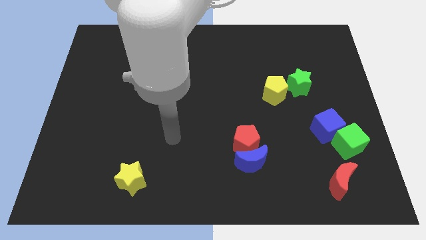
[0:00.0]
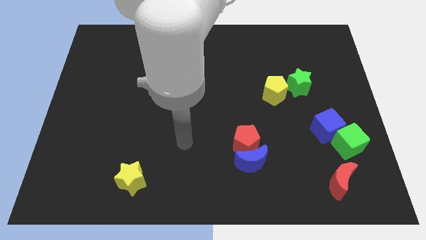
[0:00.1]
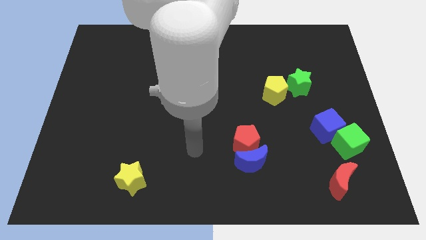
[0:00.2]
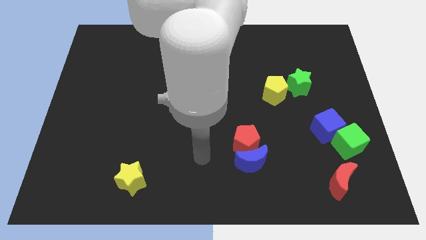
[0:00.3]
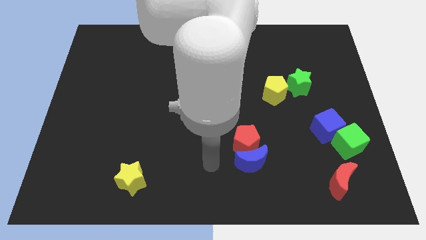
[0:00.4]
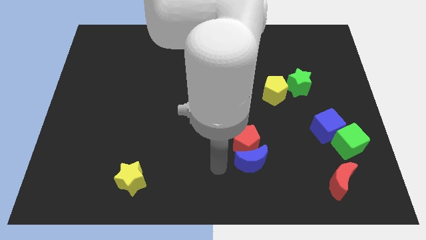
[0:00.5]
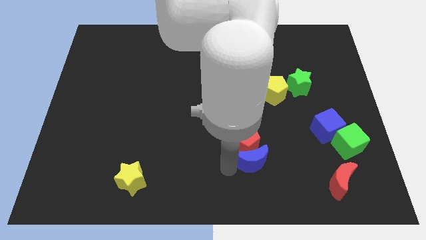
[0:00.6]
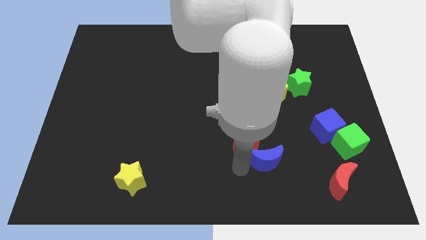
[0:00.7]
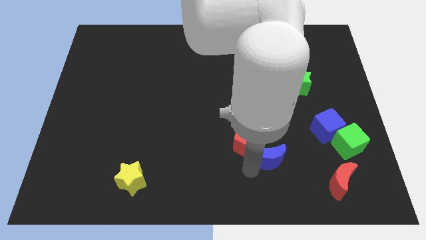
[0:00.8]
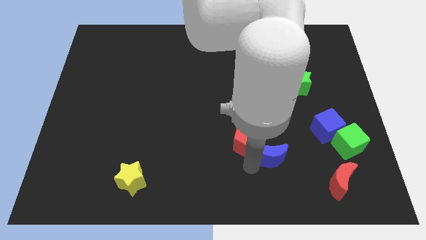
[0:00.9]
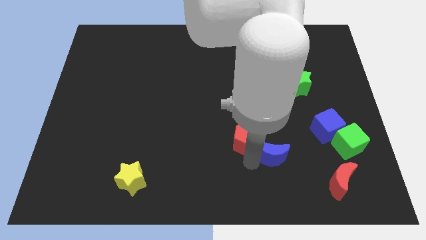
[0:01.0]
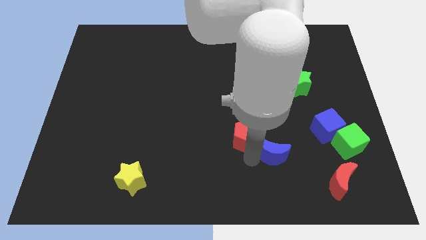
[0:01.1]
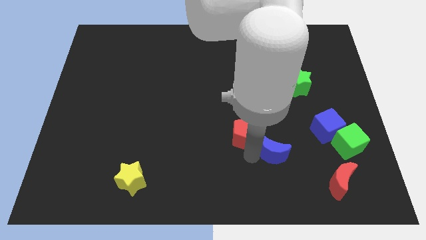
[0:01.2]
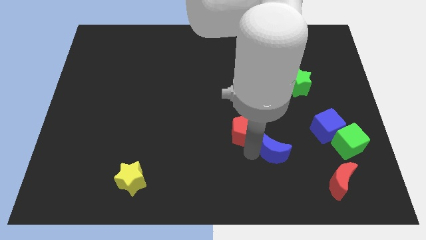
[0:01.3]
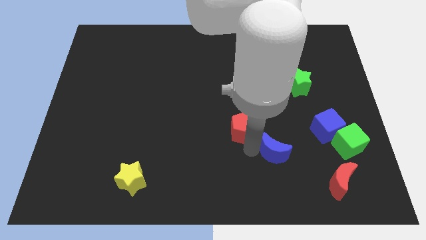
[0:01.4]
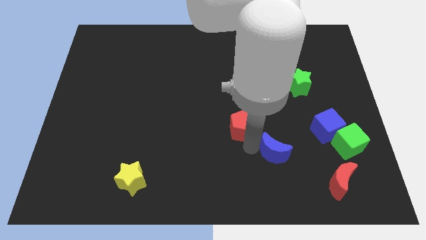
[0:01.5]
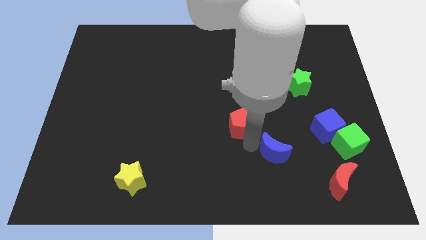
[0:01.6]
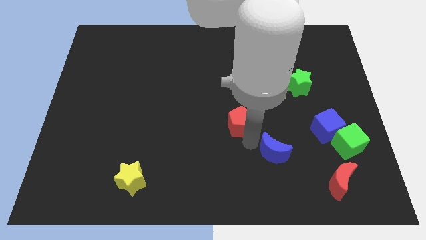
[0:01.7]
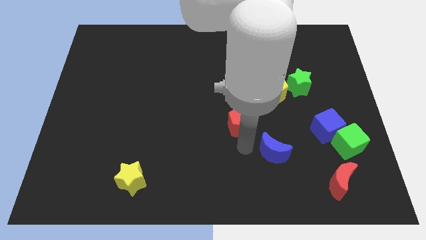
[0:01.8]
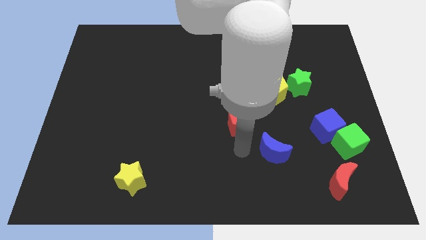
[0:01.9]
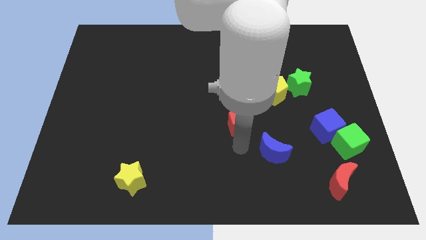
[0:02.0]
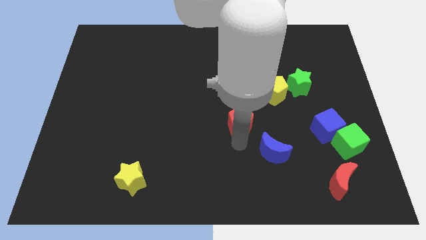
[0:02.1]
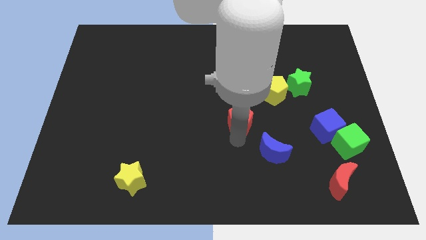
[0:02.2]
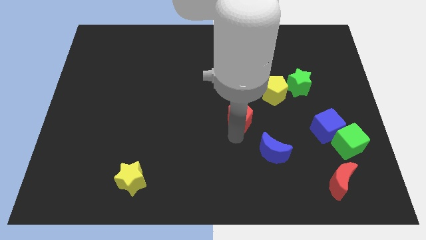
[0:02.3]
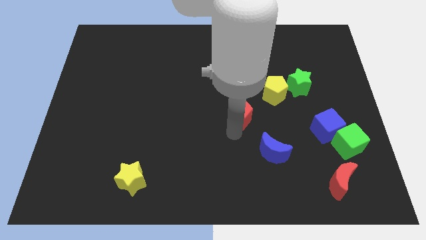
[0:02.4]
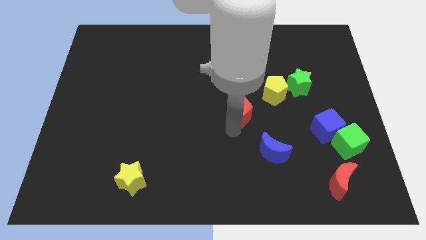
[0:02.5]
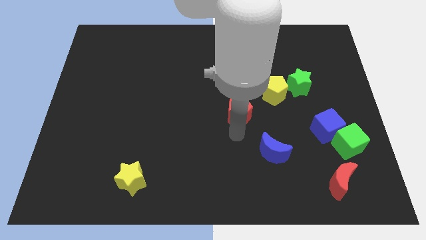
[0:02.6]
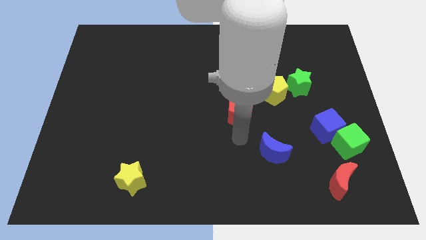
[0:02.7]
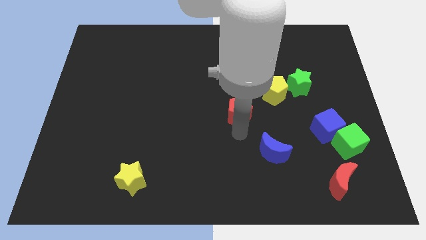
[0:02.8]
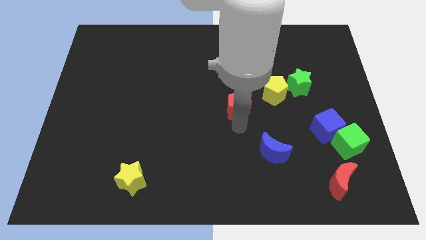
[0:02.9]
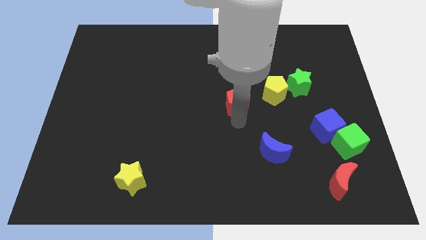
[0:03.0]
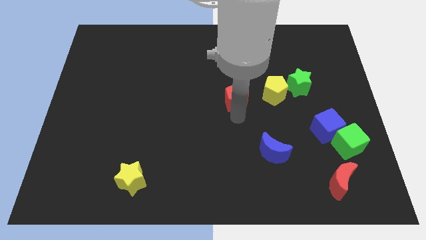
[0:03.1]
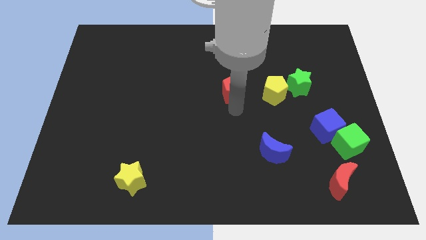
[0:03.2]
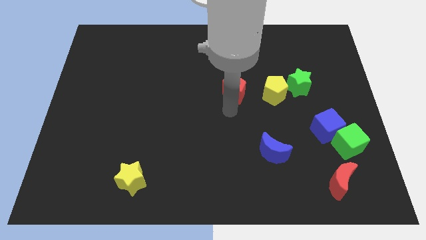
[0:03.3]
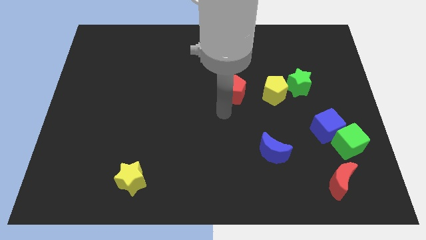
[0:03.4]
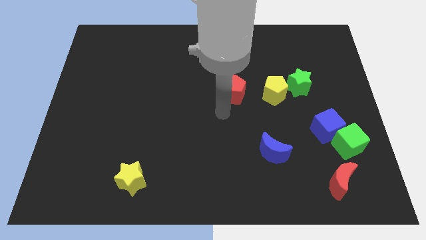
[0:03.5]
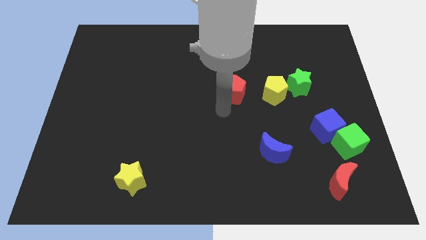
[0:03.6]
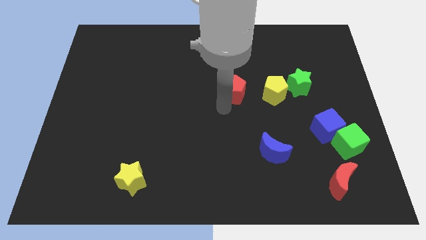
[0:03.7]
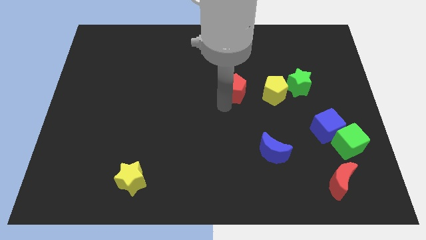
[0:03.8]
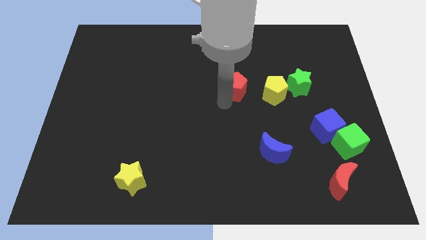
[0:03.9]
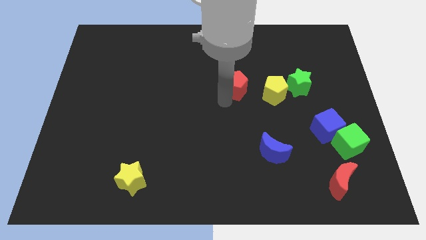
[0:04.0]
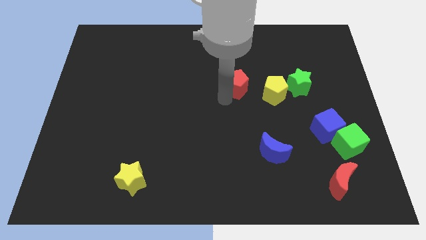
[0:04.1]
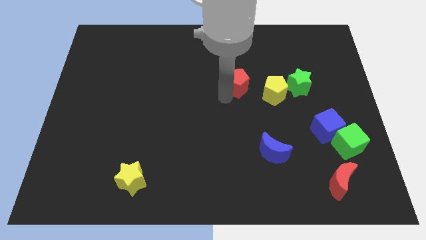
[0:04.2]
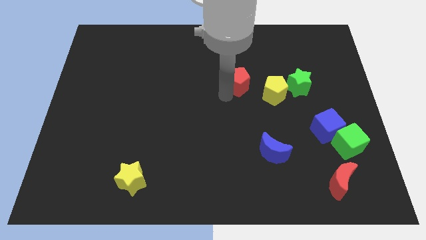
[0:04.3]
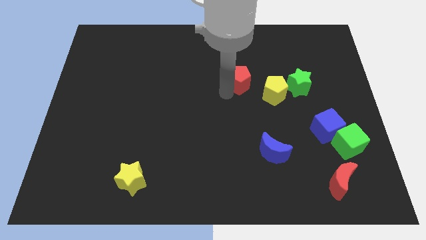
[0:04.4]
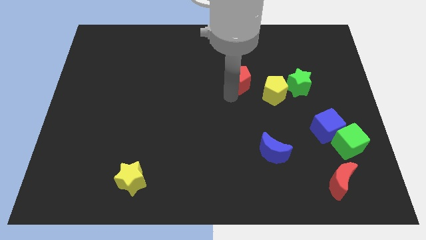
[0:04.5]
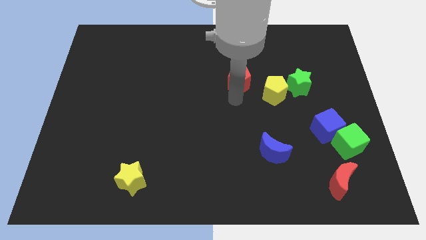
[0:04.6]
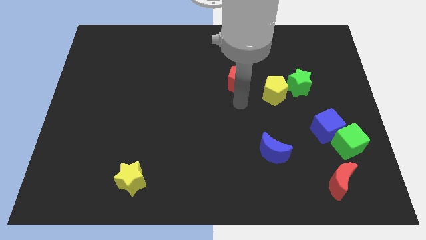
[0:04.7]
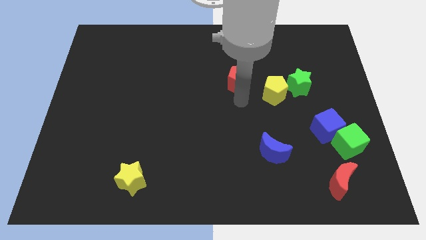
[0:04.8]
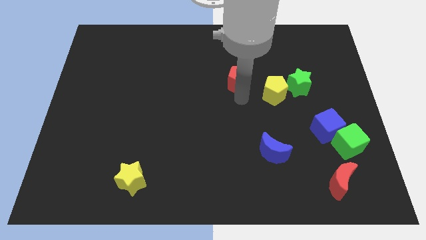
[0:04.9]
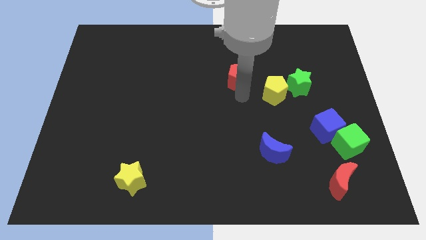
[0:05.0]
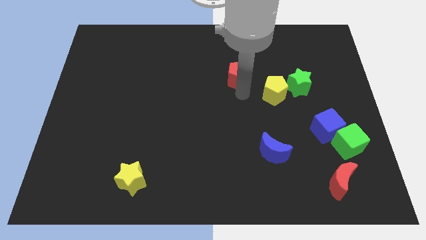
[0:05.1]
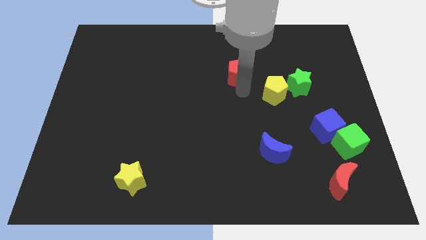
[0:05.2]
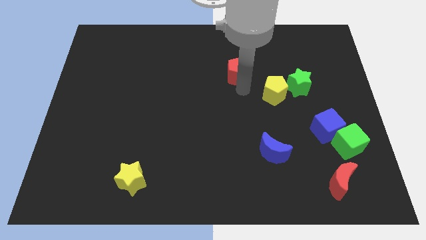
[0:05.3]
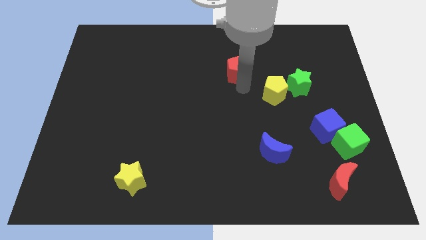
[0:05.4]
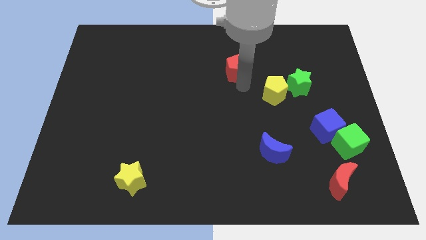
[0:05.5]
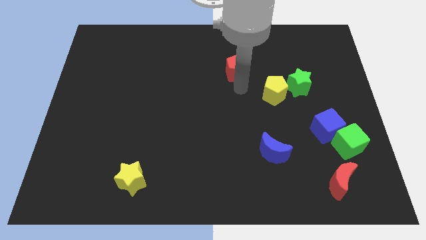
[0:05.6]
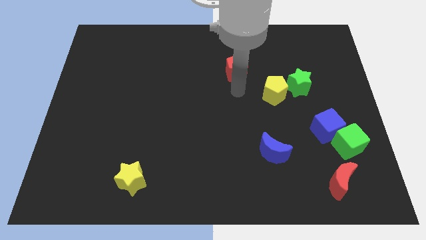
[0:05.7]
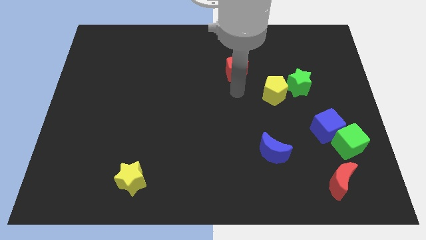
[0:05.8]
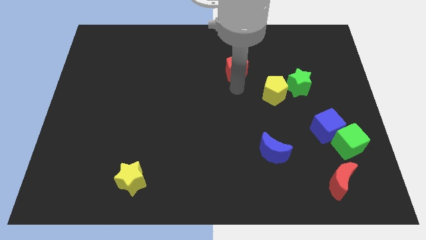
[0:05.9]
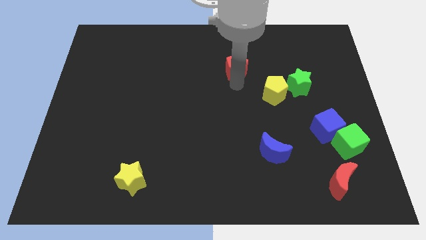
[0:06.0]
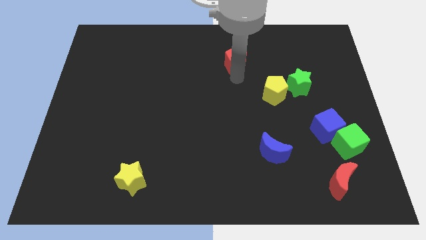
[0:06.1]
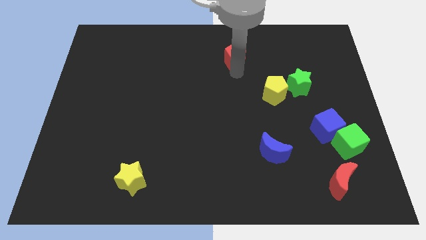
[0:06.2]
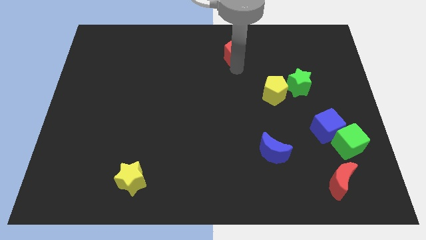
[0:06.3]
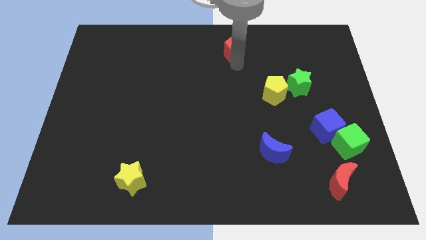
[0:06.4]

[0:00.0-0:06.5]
move the red pentagon to the top side
